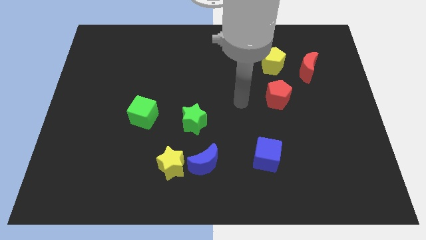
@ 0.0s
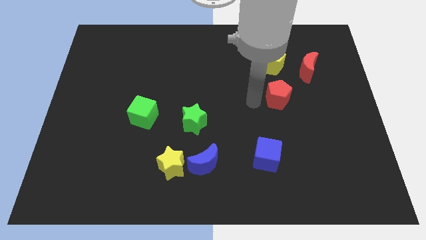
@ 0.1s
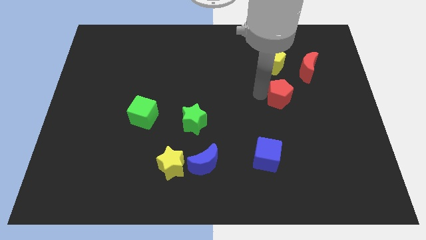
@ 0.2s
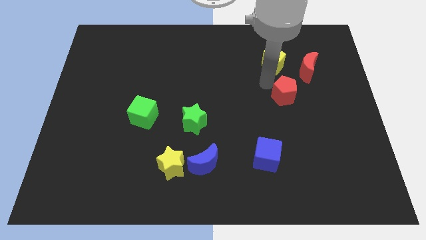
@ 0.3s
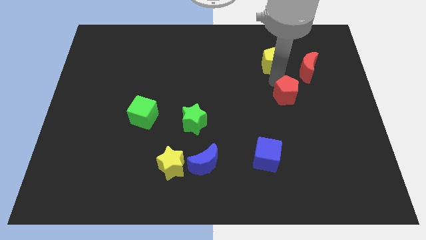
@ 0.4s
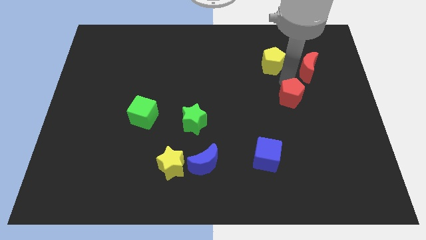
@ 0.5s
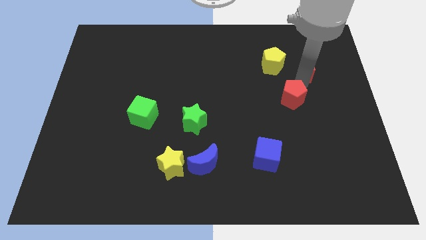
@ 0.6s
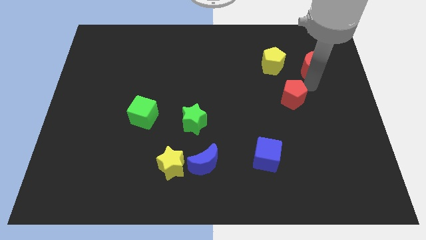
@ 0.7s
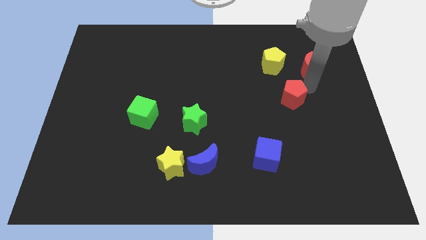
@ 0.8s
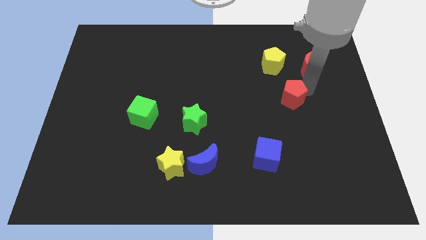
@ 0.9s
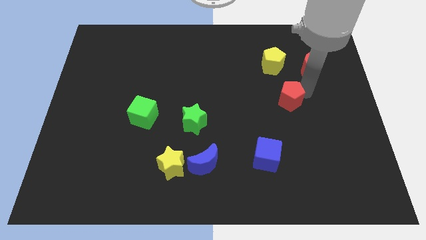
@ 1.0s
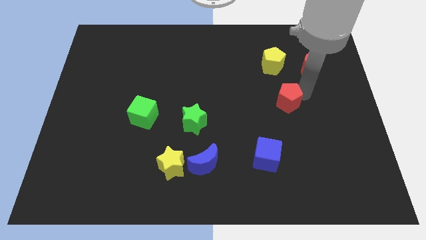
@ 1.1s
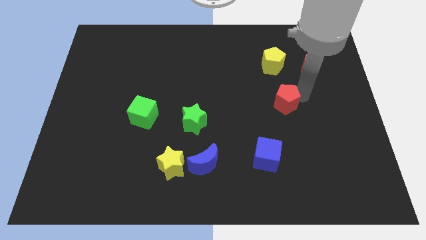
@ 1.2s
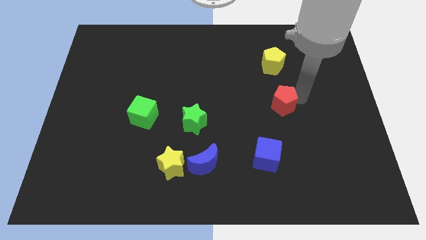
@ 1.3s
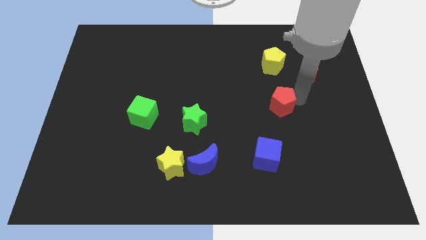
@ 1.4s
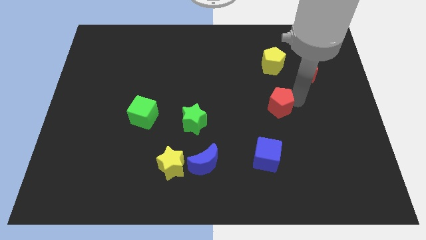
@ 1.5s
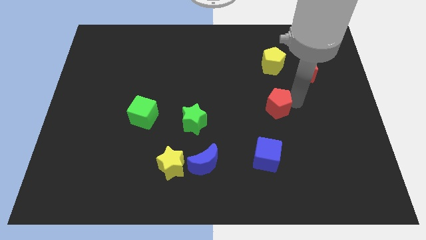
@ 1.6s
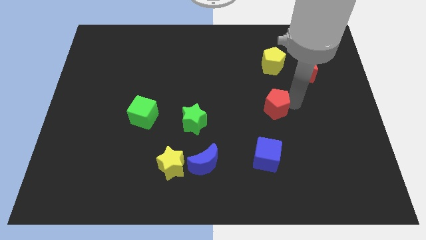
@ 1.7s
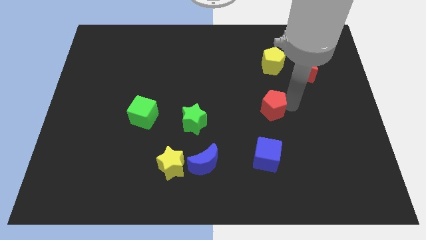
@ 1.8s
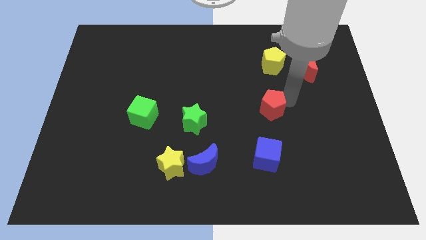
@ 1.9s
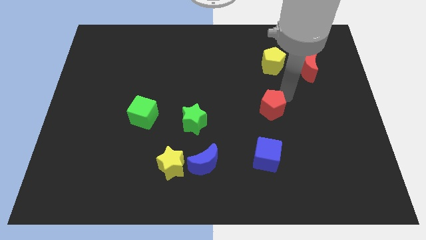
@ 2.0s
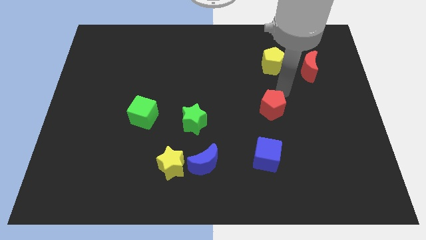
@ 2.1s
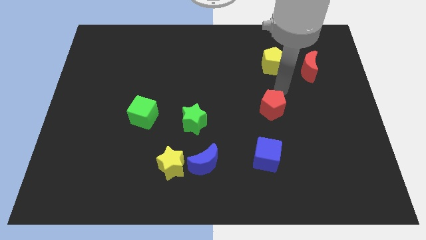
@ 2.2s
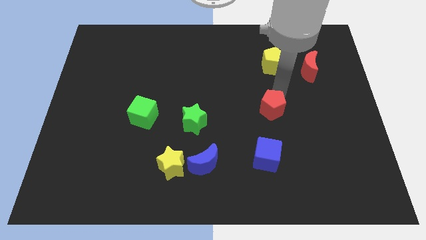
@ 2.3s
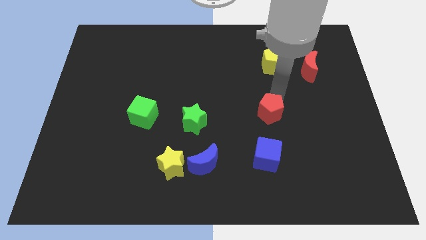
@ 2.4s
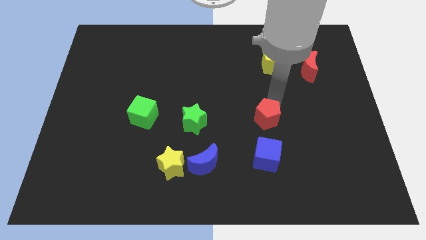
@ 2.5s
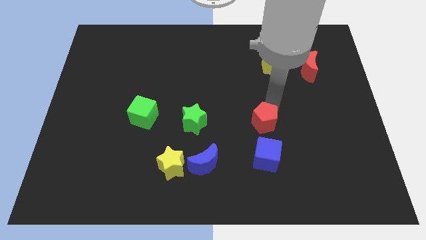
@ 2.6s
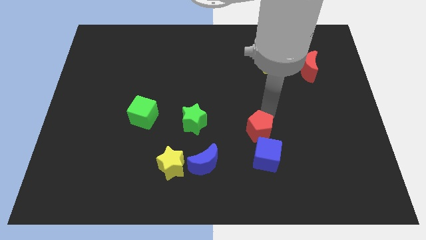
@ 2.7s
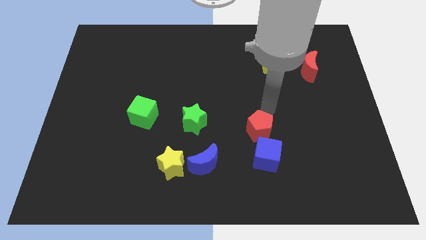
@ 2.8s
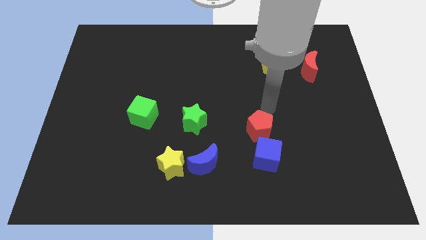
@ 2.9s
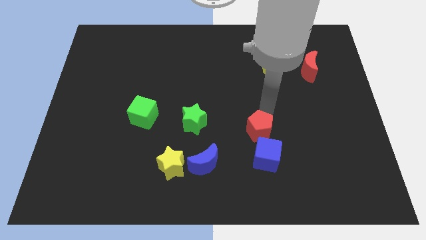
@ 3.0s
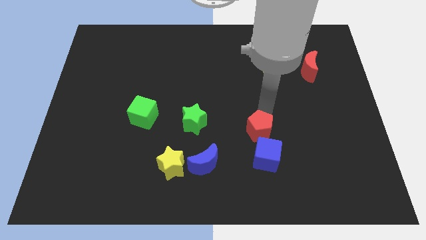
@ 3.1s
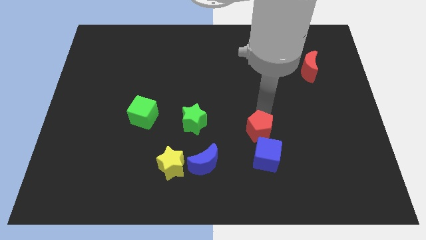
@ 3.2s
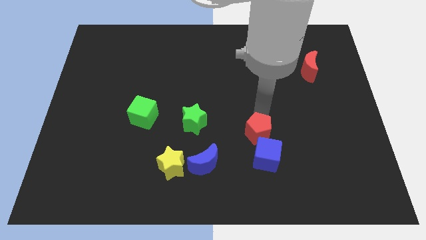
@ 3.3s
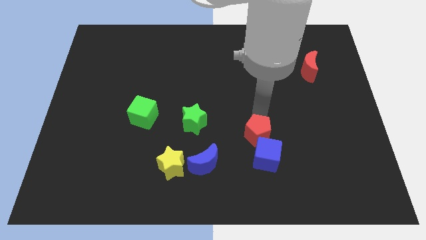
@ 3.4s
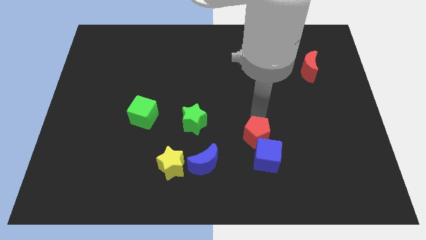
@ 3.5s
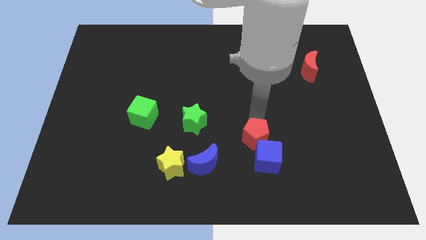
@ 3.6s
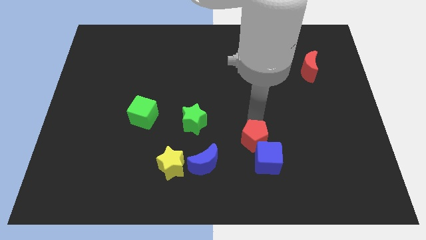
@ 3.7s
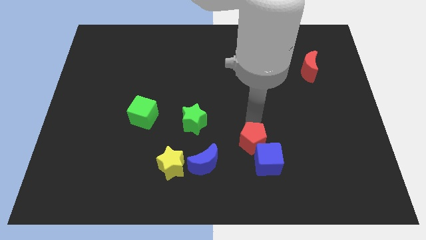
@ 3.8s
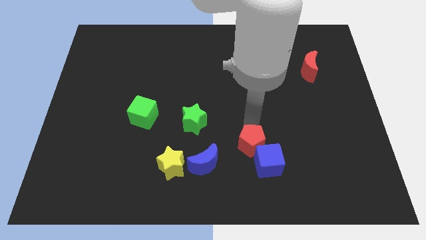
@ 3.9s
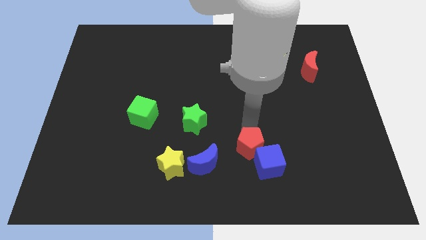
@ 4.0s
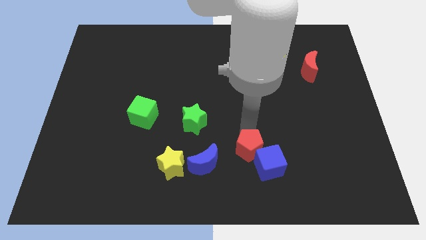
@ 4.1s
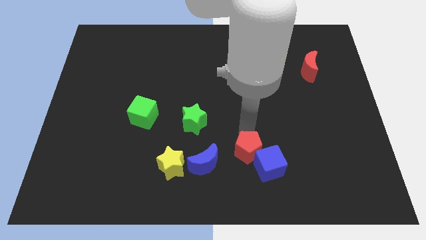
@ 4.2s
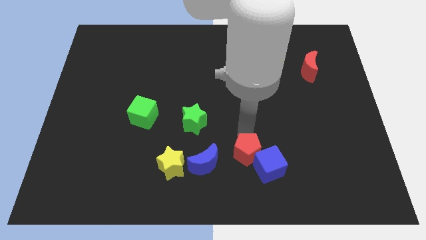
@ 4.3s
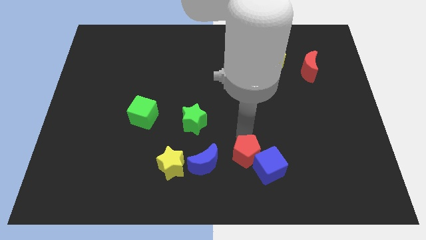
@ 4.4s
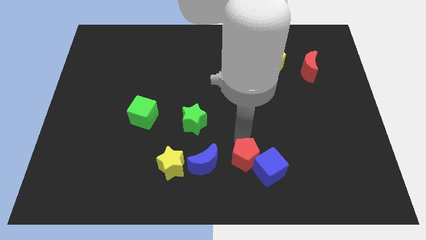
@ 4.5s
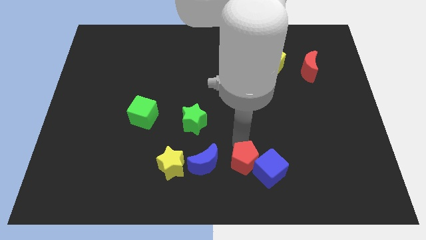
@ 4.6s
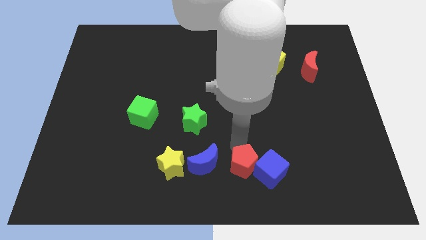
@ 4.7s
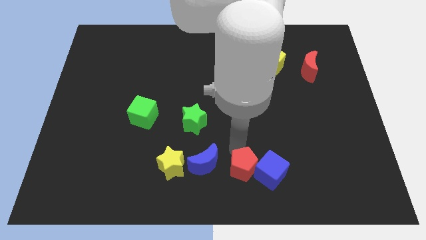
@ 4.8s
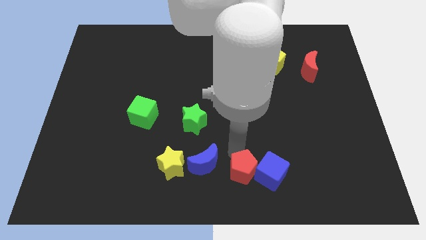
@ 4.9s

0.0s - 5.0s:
slide the red pentagon to the bottom left side of the blue cube

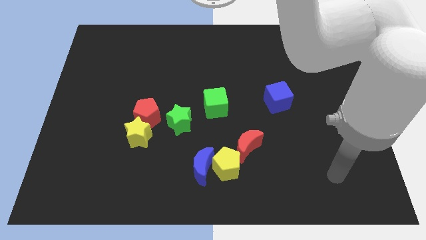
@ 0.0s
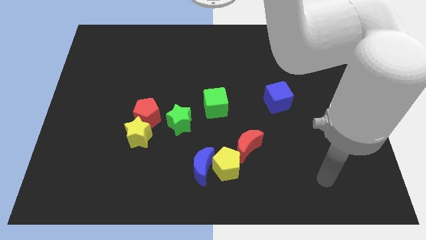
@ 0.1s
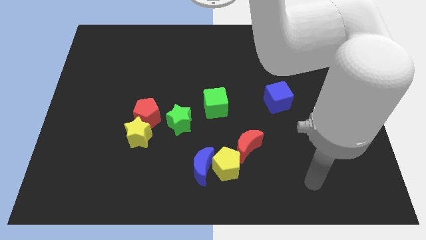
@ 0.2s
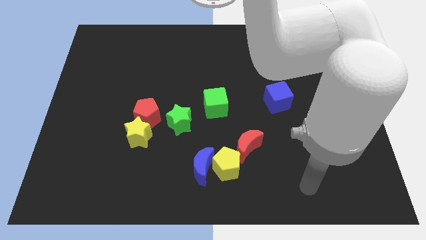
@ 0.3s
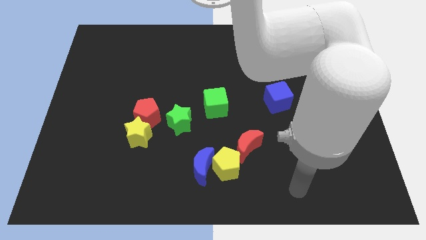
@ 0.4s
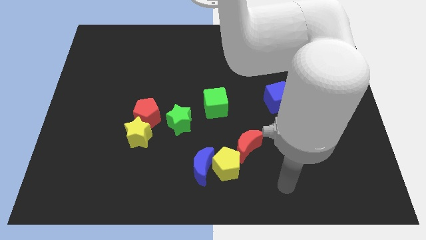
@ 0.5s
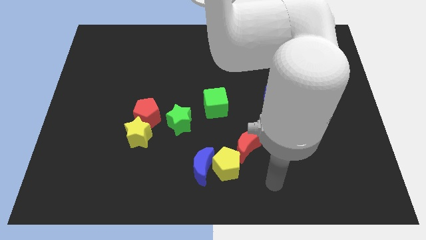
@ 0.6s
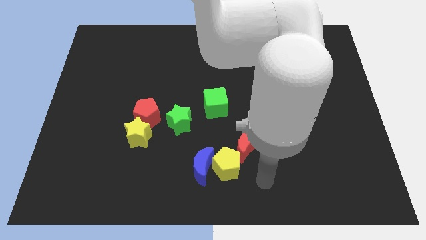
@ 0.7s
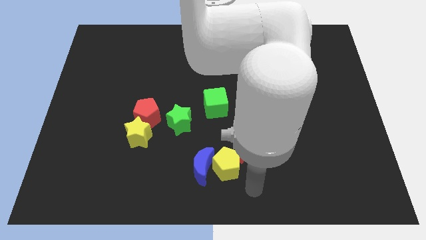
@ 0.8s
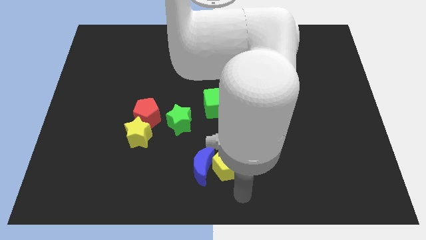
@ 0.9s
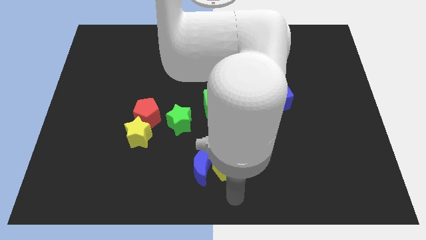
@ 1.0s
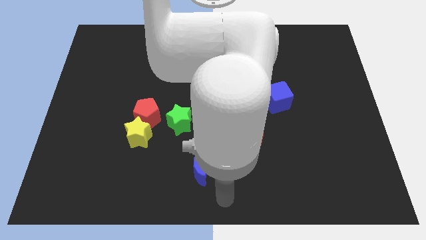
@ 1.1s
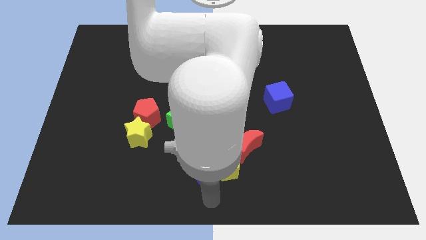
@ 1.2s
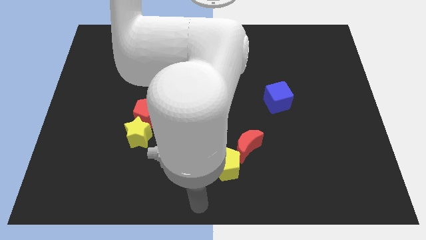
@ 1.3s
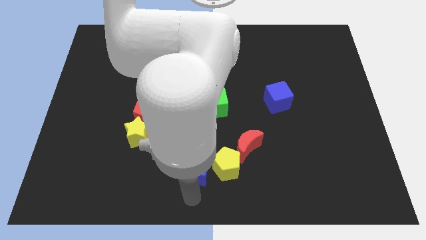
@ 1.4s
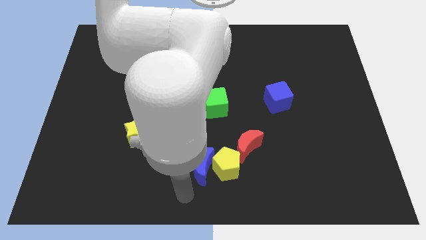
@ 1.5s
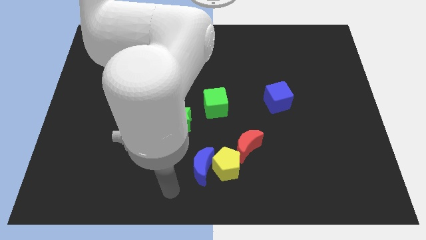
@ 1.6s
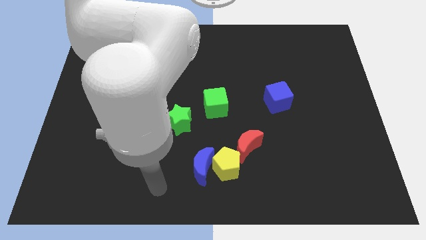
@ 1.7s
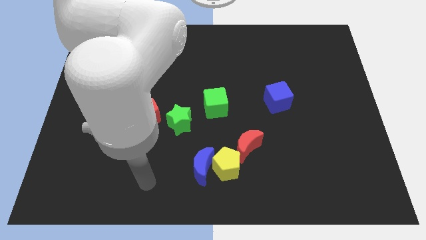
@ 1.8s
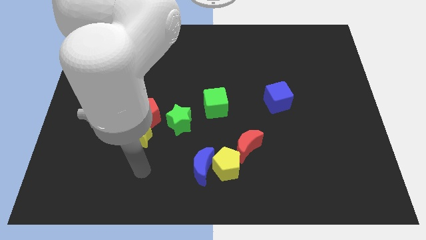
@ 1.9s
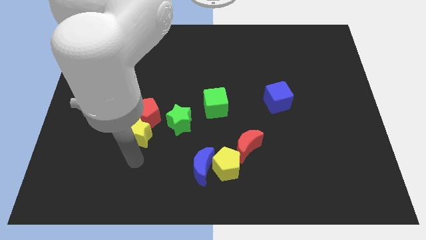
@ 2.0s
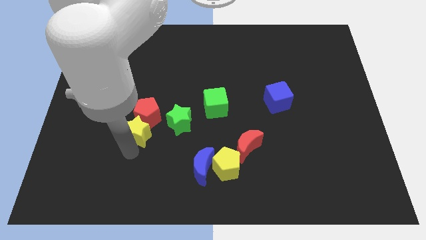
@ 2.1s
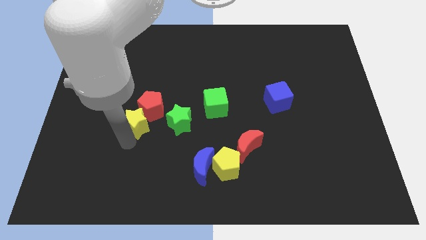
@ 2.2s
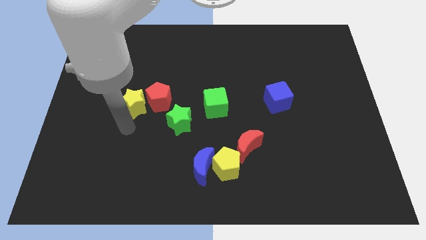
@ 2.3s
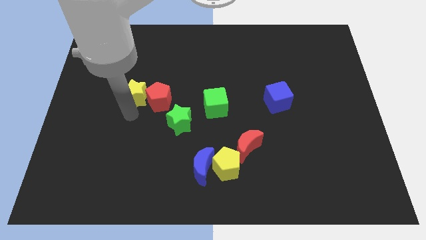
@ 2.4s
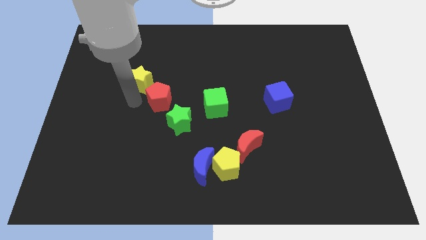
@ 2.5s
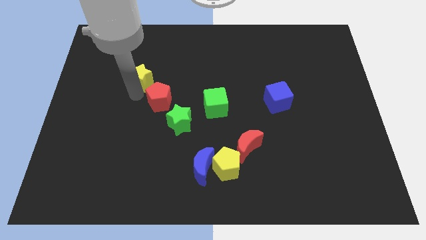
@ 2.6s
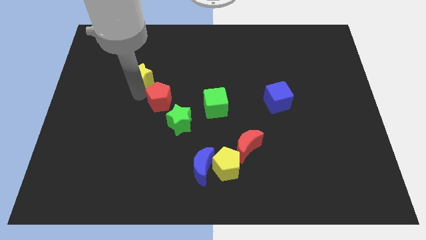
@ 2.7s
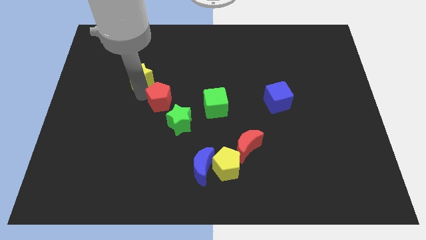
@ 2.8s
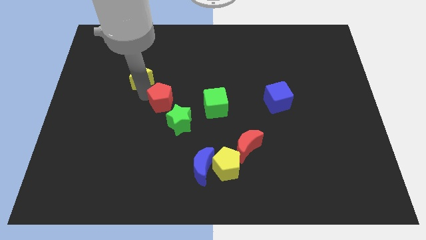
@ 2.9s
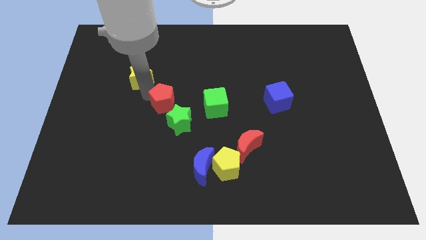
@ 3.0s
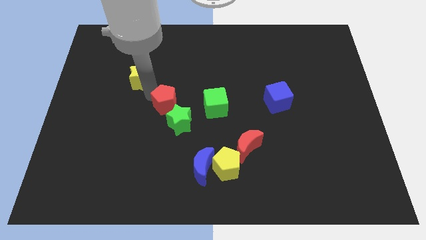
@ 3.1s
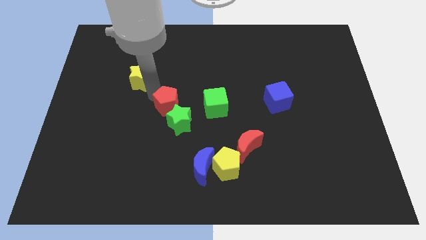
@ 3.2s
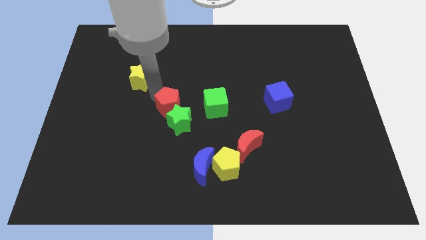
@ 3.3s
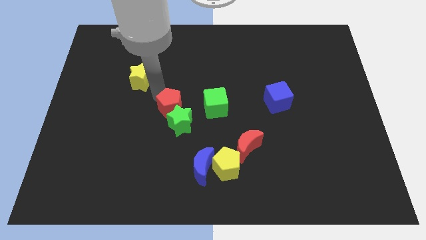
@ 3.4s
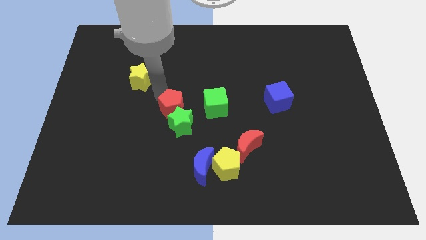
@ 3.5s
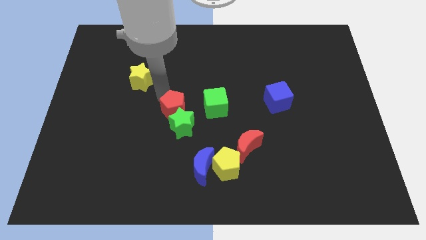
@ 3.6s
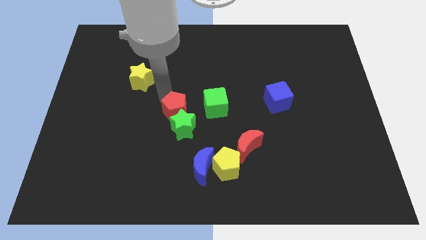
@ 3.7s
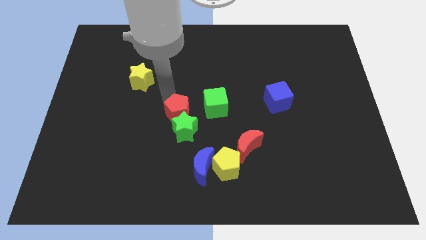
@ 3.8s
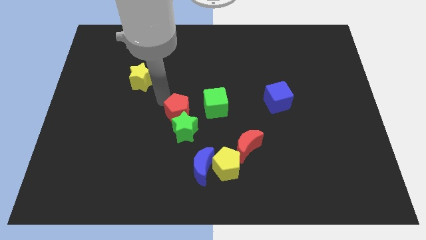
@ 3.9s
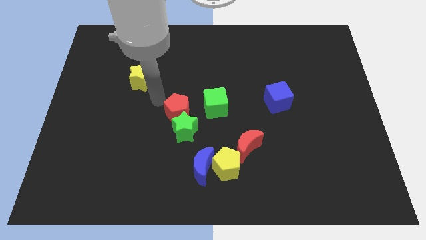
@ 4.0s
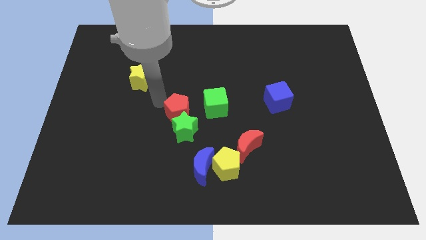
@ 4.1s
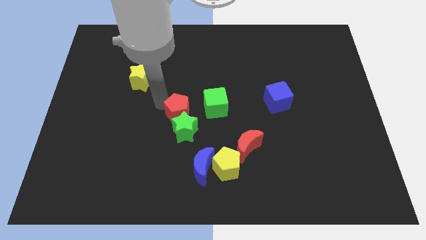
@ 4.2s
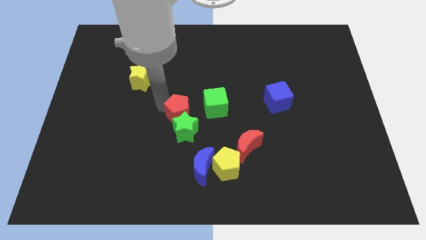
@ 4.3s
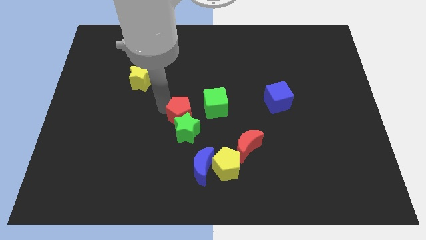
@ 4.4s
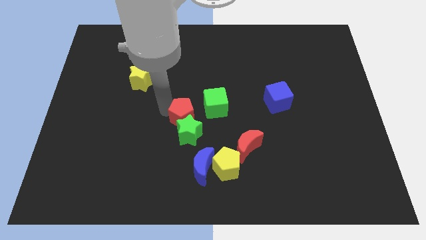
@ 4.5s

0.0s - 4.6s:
put the red pentagon to the top of the blue moon
